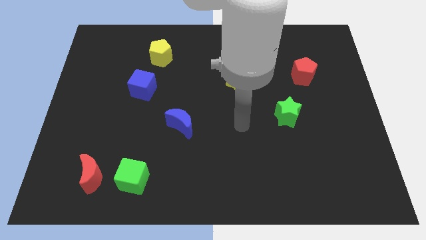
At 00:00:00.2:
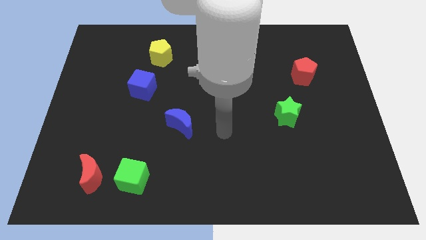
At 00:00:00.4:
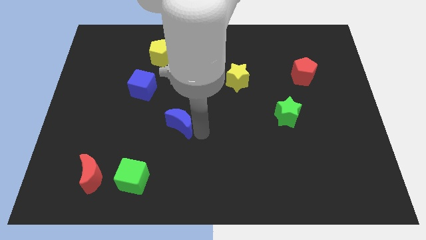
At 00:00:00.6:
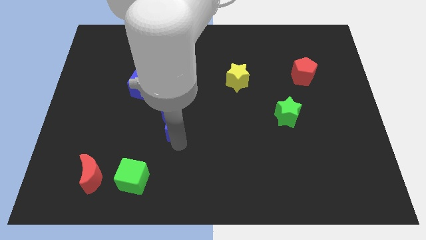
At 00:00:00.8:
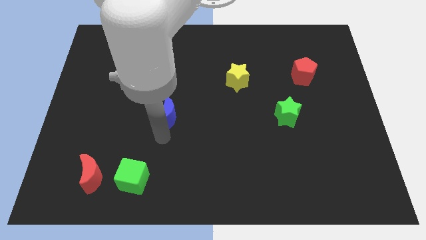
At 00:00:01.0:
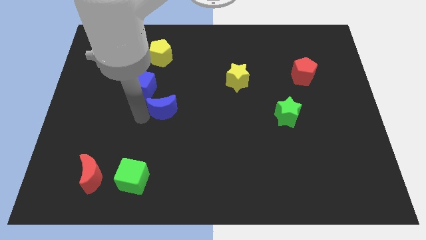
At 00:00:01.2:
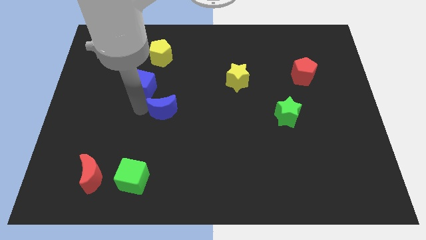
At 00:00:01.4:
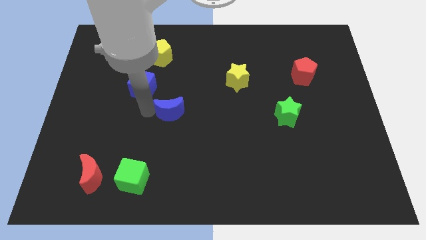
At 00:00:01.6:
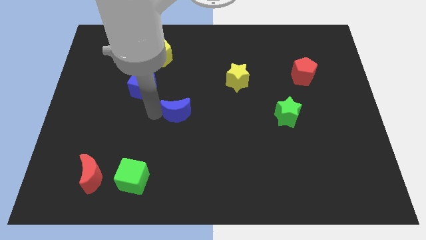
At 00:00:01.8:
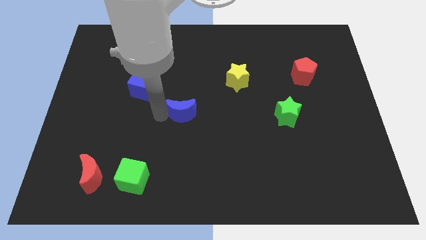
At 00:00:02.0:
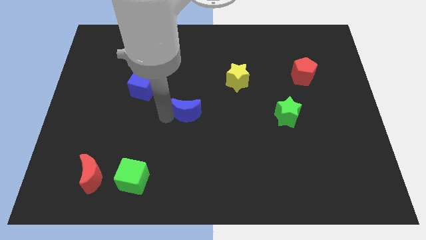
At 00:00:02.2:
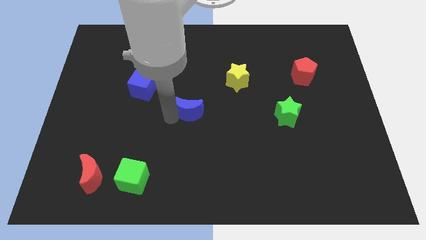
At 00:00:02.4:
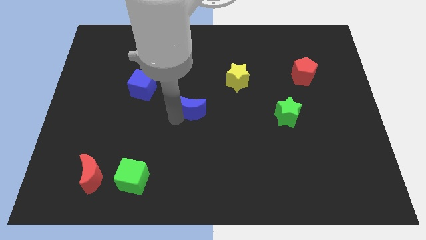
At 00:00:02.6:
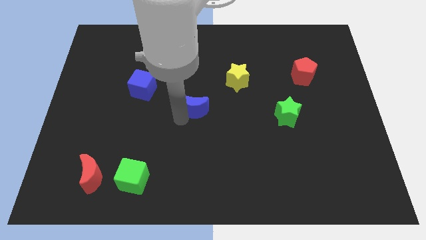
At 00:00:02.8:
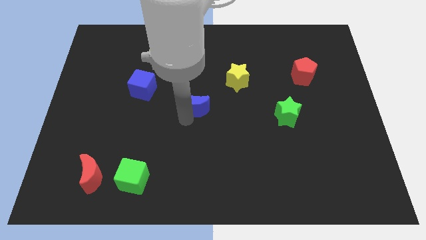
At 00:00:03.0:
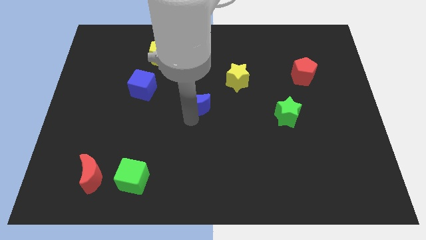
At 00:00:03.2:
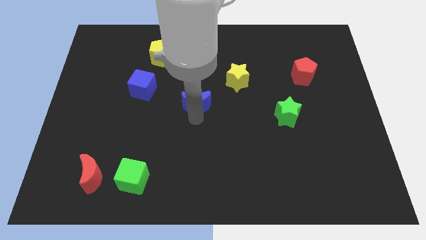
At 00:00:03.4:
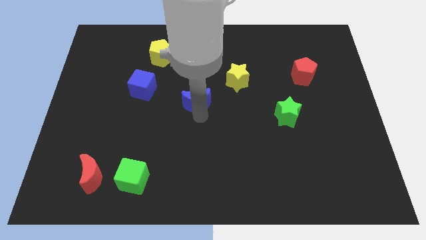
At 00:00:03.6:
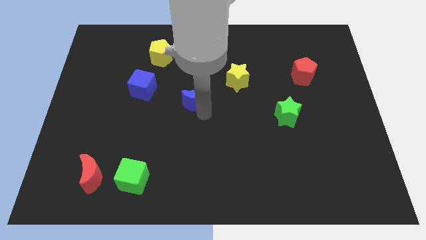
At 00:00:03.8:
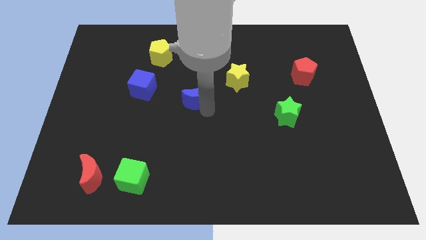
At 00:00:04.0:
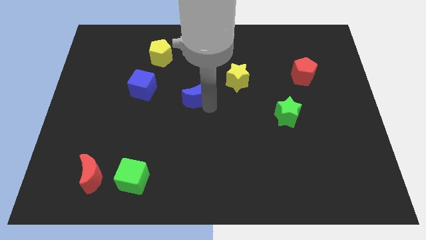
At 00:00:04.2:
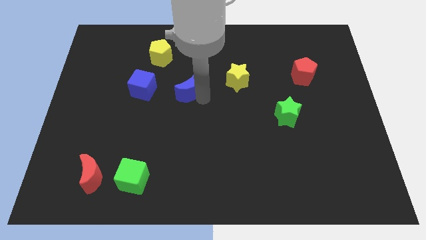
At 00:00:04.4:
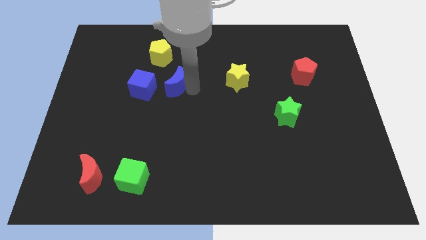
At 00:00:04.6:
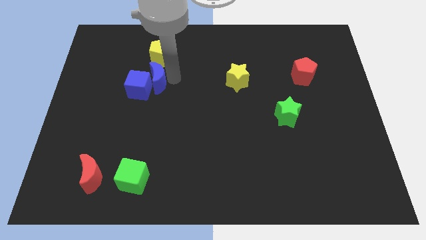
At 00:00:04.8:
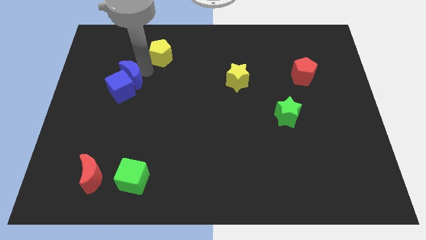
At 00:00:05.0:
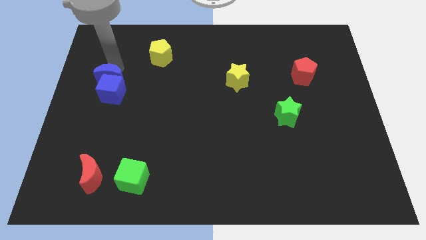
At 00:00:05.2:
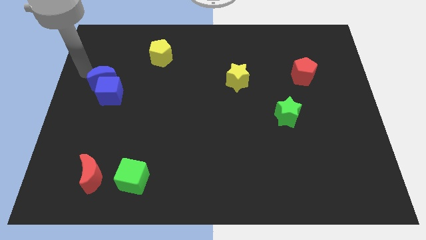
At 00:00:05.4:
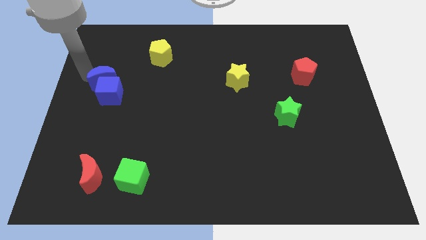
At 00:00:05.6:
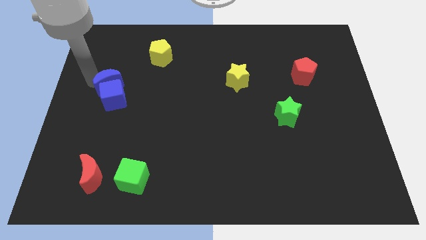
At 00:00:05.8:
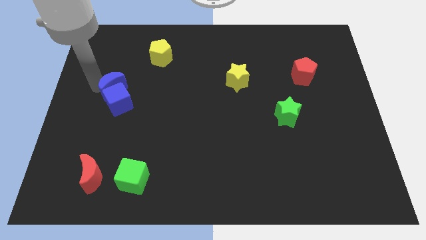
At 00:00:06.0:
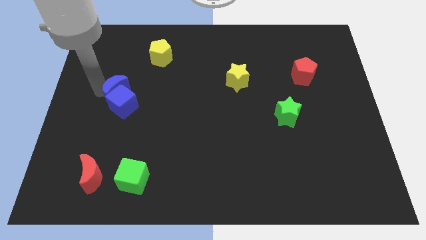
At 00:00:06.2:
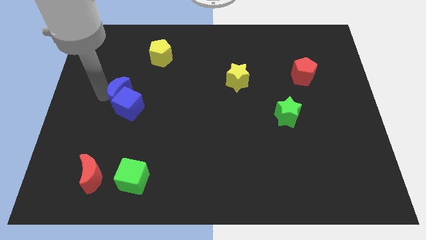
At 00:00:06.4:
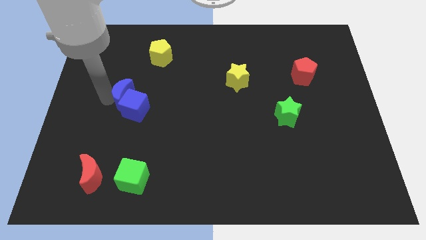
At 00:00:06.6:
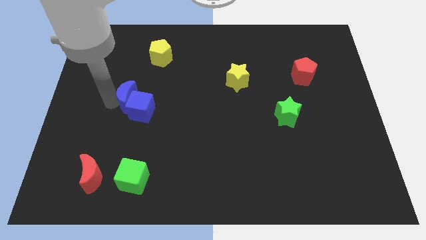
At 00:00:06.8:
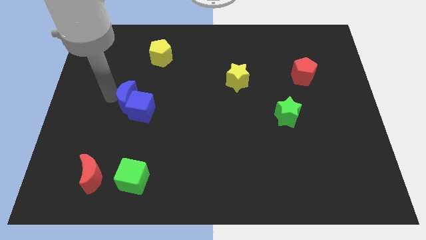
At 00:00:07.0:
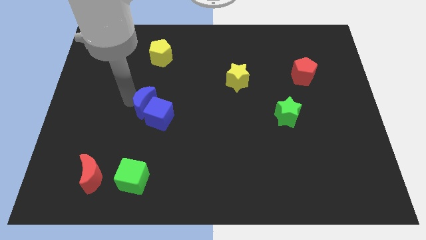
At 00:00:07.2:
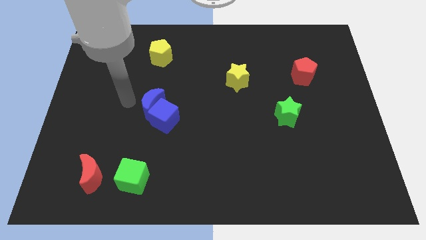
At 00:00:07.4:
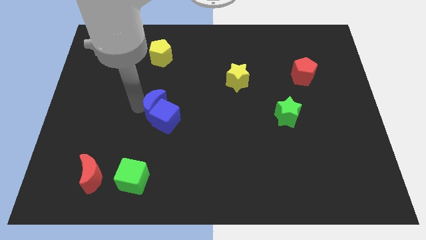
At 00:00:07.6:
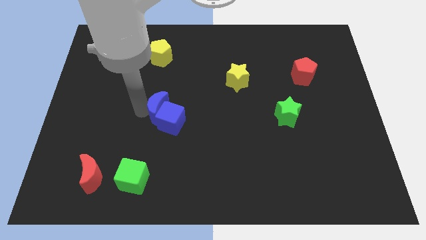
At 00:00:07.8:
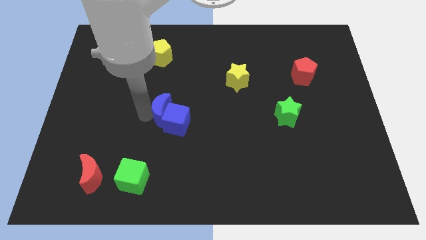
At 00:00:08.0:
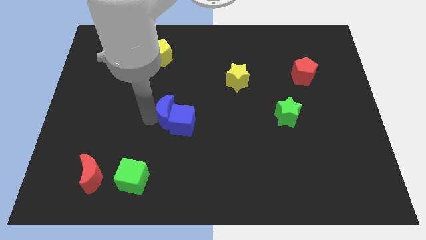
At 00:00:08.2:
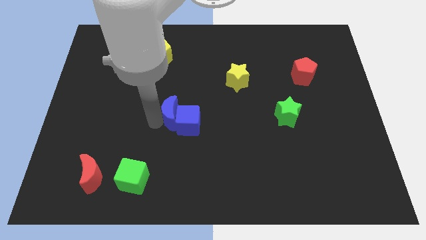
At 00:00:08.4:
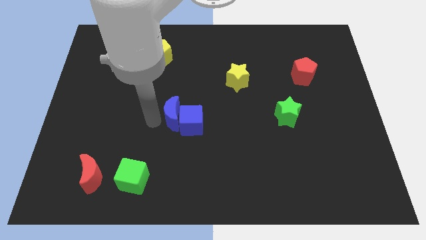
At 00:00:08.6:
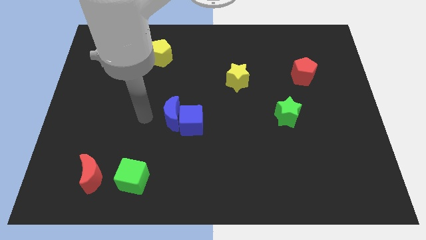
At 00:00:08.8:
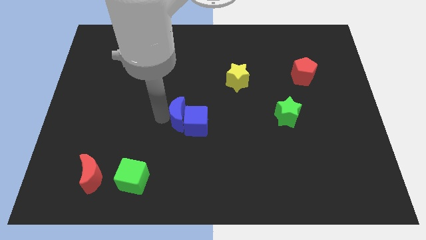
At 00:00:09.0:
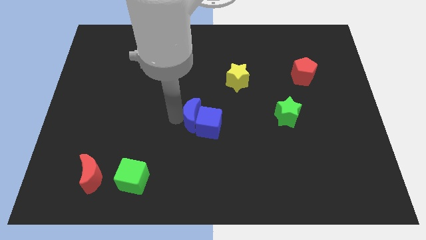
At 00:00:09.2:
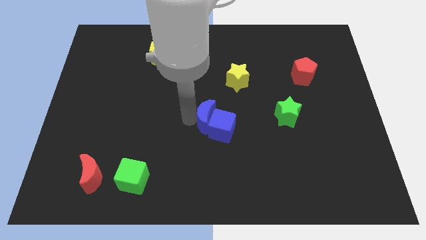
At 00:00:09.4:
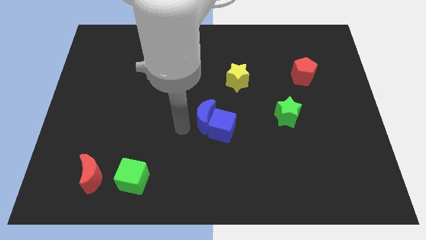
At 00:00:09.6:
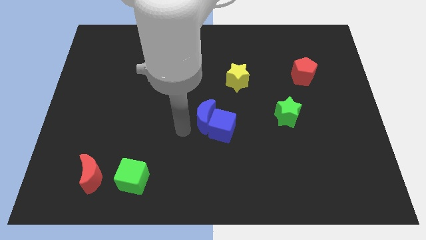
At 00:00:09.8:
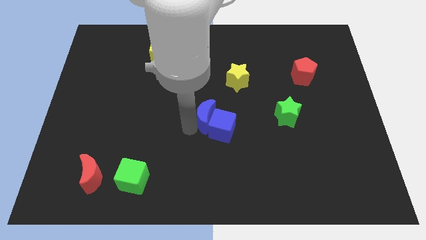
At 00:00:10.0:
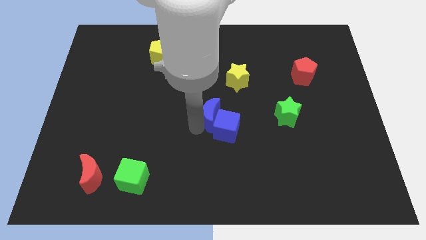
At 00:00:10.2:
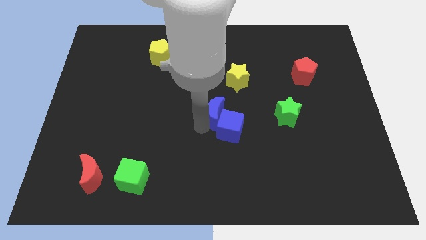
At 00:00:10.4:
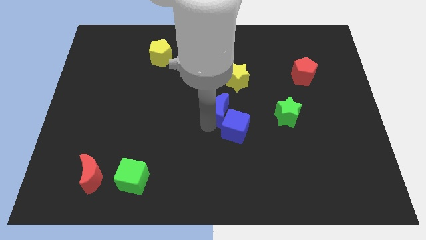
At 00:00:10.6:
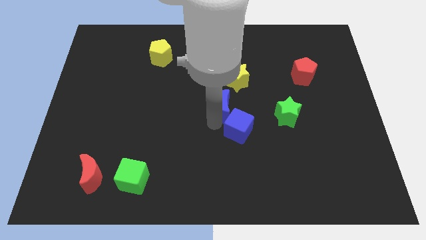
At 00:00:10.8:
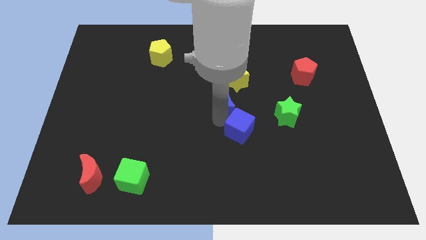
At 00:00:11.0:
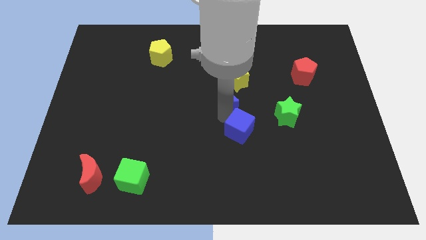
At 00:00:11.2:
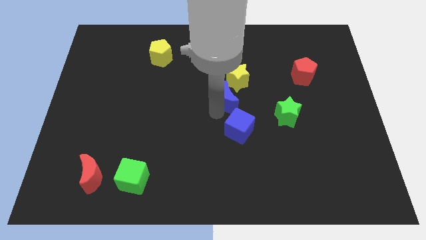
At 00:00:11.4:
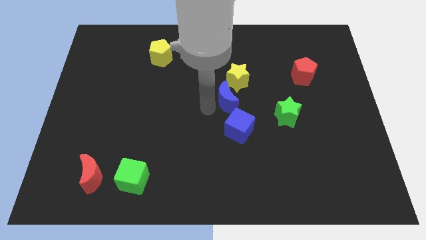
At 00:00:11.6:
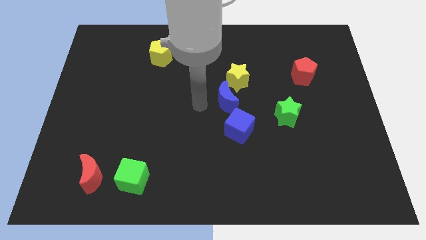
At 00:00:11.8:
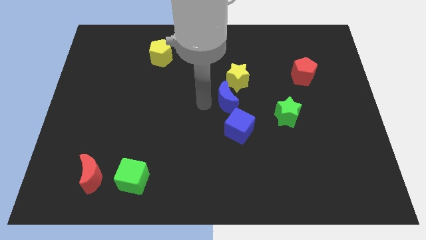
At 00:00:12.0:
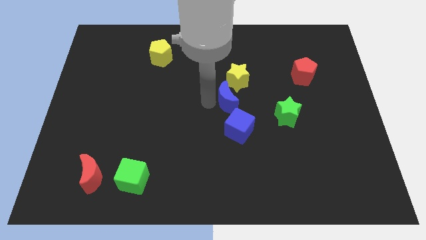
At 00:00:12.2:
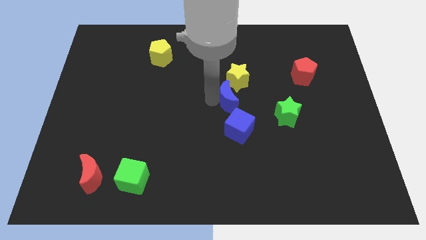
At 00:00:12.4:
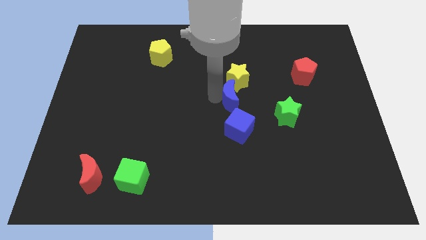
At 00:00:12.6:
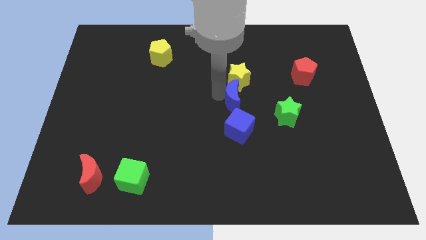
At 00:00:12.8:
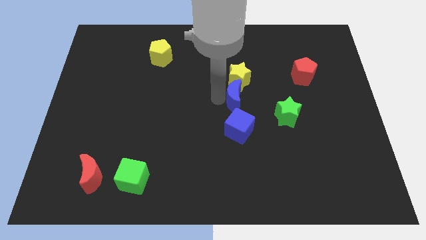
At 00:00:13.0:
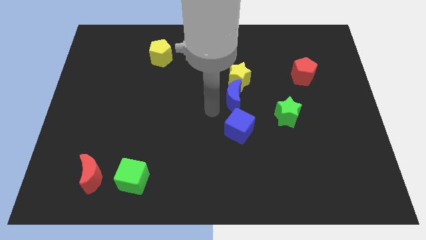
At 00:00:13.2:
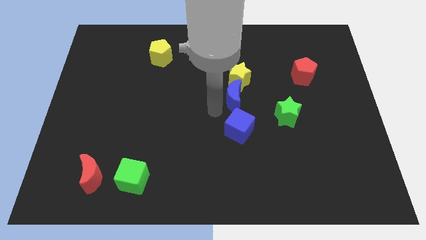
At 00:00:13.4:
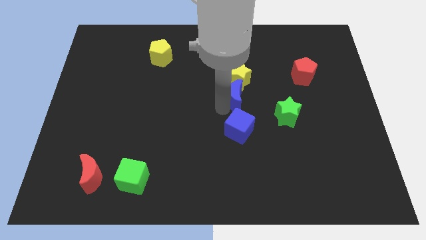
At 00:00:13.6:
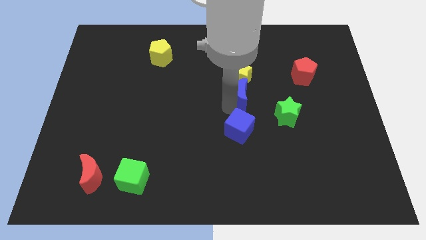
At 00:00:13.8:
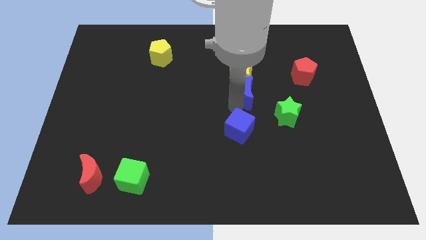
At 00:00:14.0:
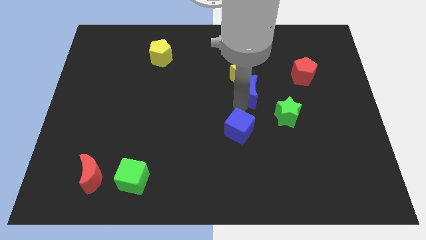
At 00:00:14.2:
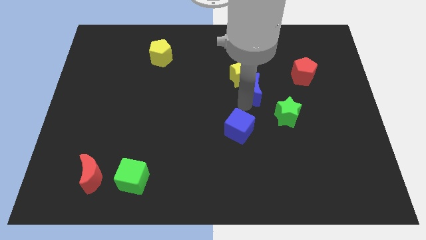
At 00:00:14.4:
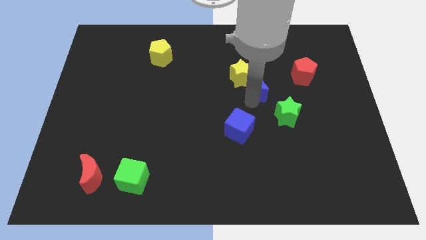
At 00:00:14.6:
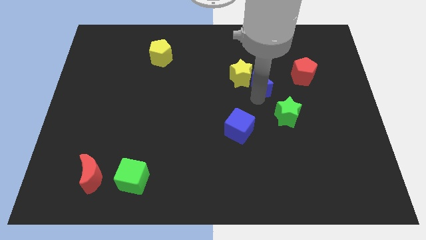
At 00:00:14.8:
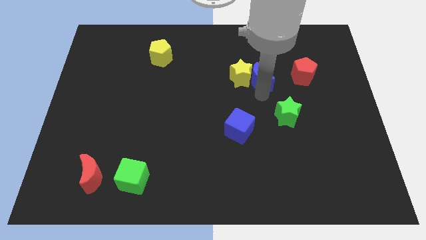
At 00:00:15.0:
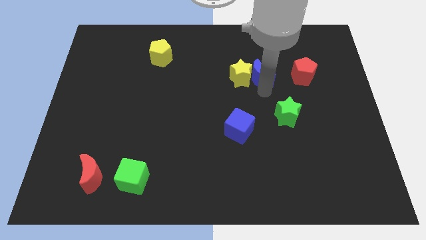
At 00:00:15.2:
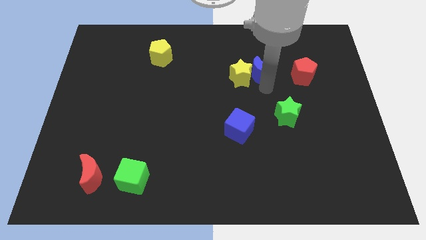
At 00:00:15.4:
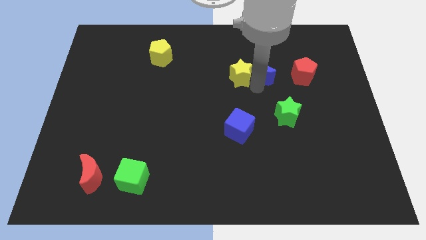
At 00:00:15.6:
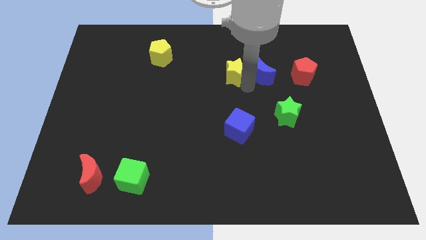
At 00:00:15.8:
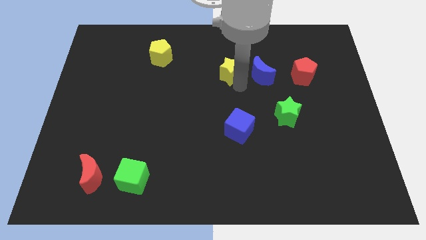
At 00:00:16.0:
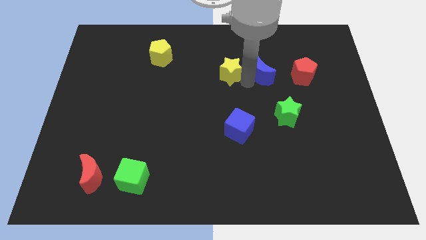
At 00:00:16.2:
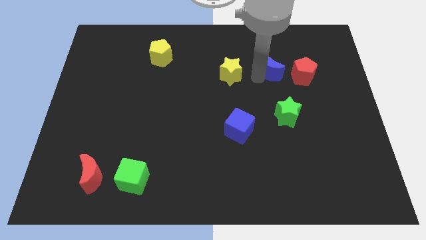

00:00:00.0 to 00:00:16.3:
move the blue moon to the top left of the red pentagon
